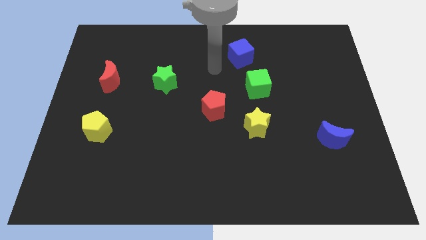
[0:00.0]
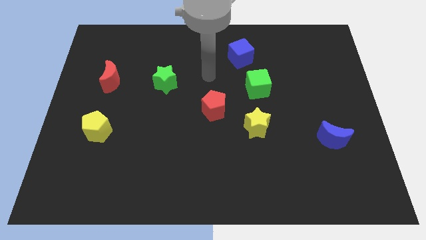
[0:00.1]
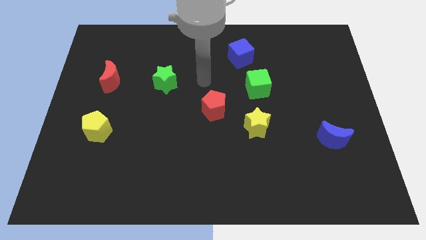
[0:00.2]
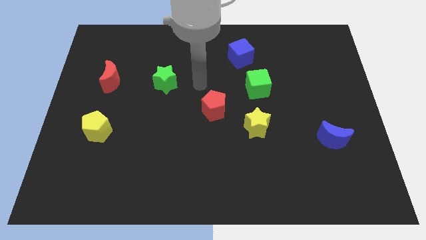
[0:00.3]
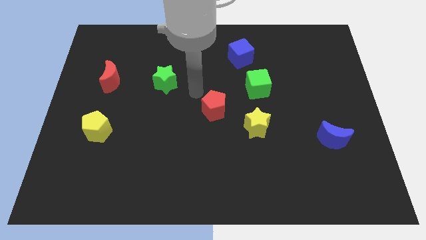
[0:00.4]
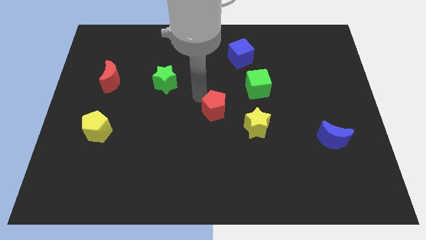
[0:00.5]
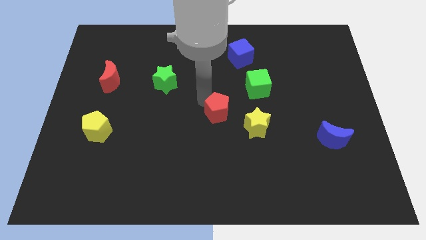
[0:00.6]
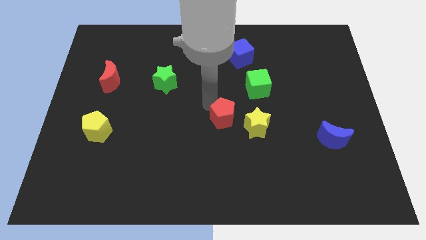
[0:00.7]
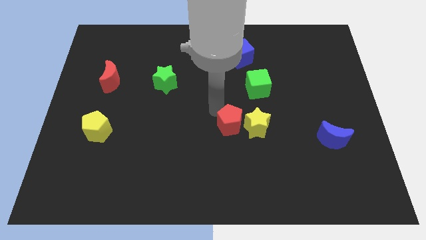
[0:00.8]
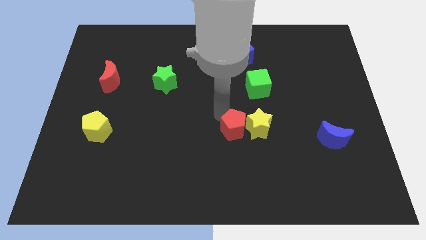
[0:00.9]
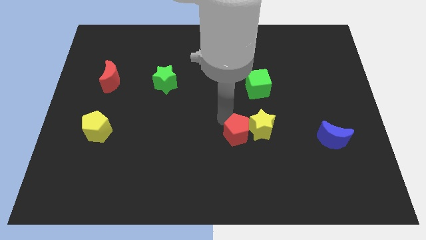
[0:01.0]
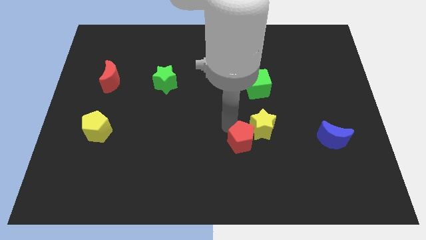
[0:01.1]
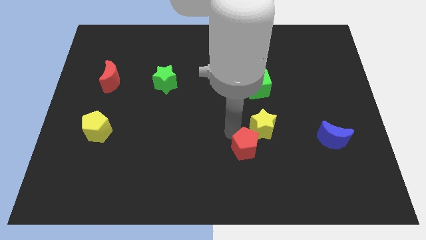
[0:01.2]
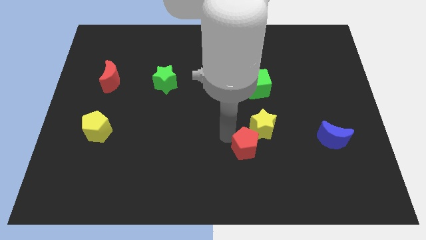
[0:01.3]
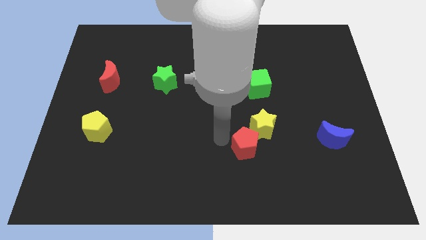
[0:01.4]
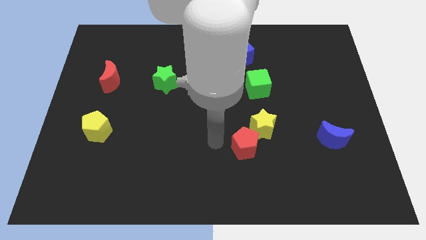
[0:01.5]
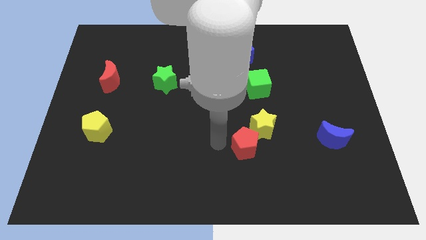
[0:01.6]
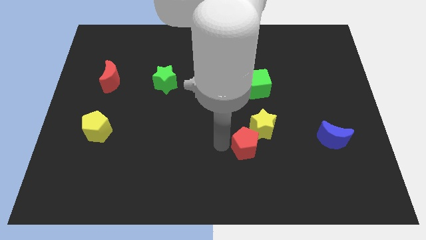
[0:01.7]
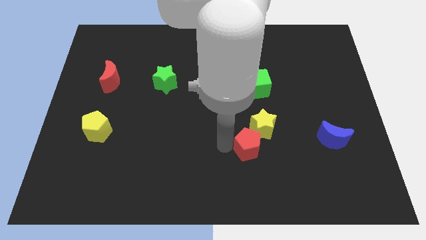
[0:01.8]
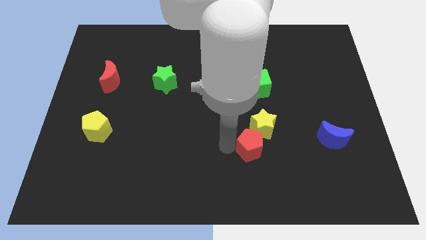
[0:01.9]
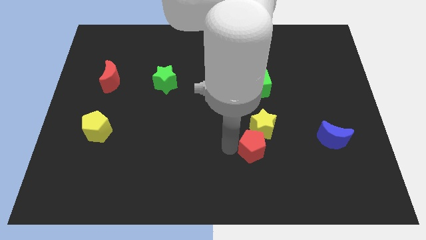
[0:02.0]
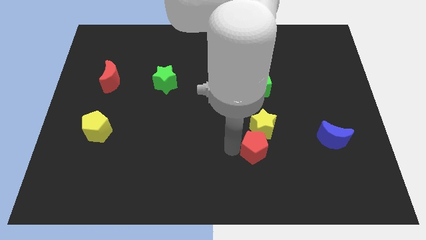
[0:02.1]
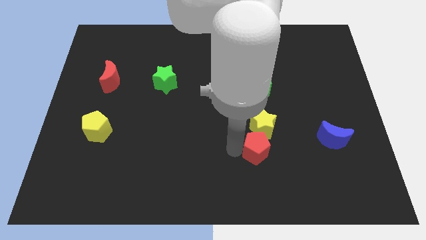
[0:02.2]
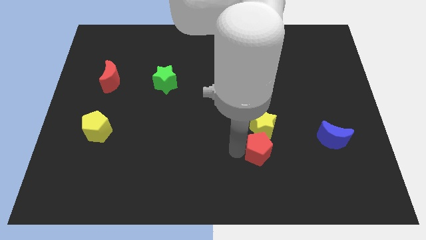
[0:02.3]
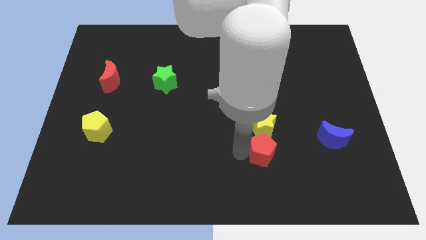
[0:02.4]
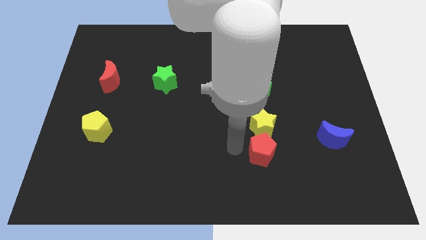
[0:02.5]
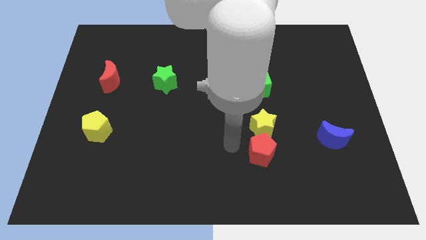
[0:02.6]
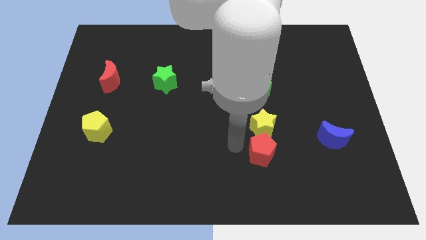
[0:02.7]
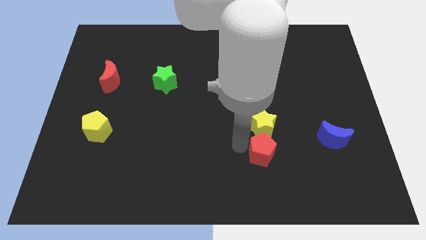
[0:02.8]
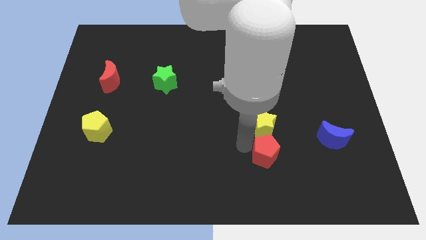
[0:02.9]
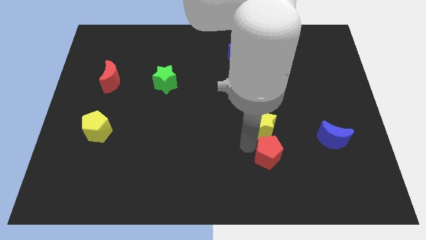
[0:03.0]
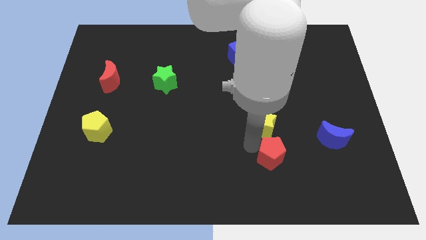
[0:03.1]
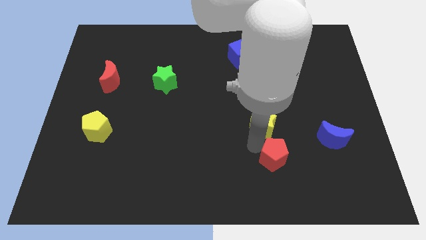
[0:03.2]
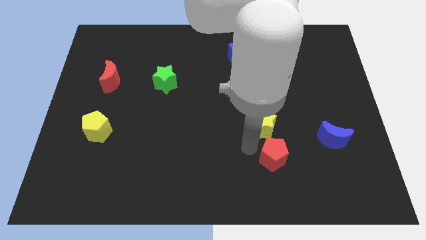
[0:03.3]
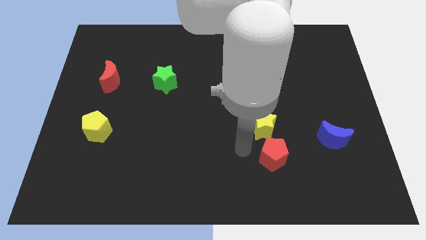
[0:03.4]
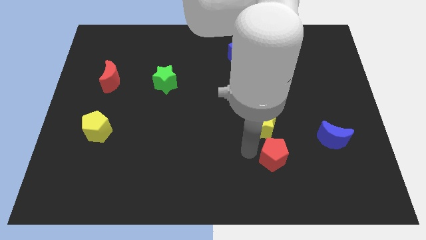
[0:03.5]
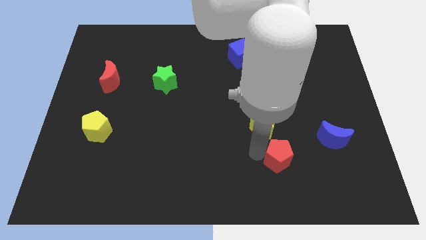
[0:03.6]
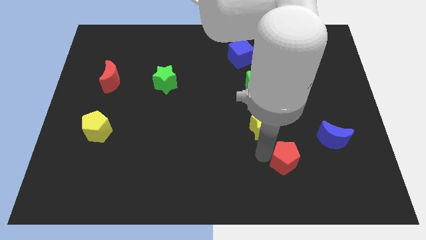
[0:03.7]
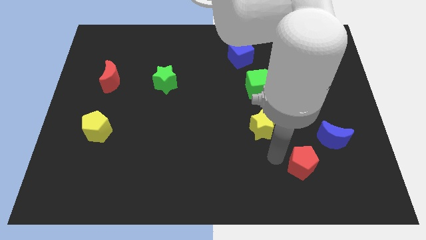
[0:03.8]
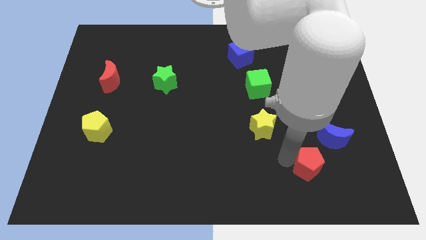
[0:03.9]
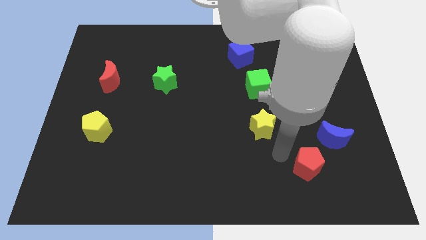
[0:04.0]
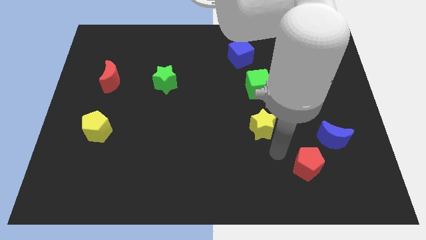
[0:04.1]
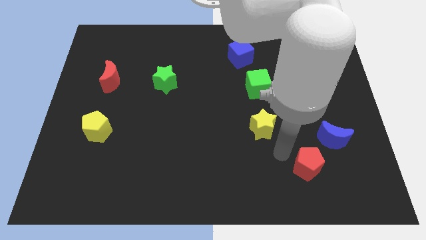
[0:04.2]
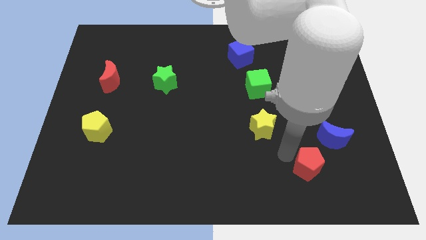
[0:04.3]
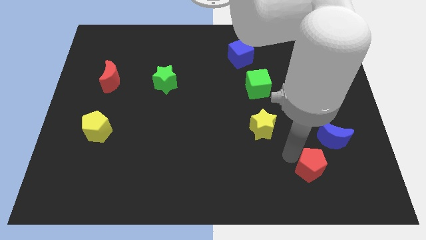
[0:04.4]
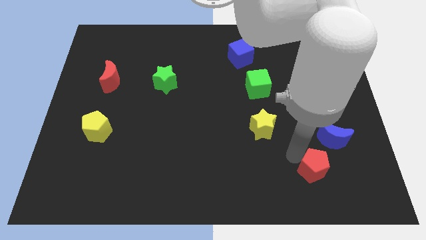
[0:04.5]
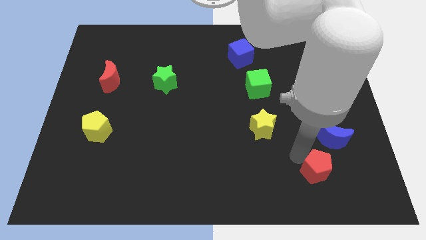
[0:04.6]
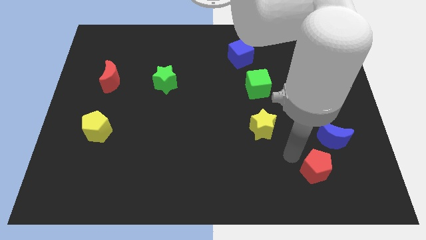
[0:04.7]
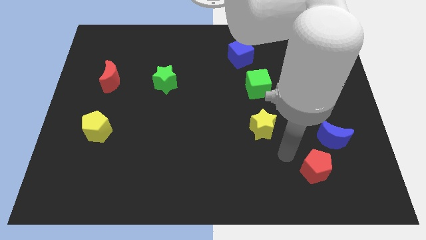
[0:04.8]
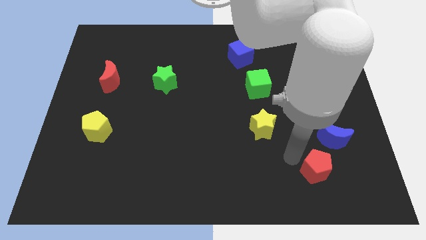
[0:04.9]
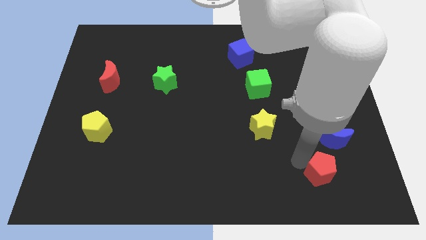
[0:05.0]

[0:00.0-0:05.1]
slide the red pentagon below the blue moon

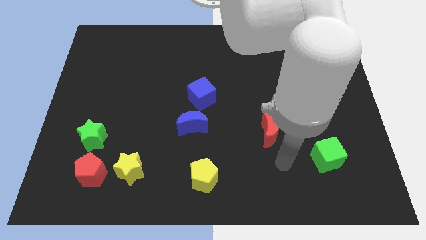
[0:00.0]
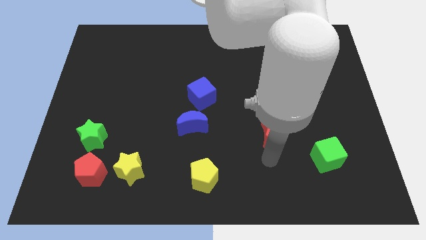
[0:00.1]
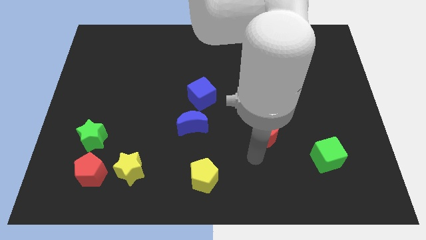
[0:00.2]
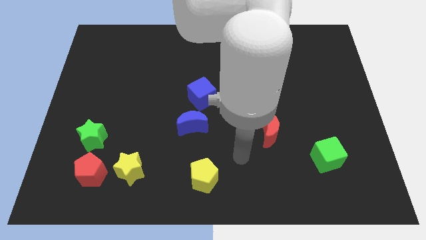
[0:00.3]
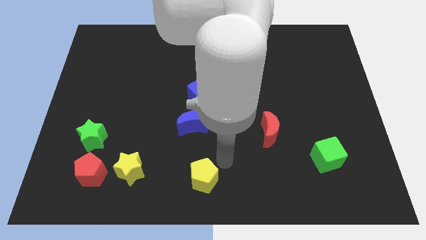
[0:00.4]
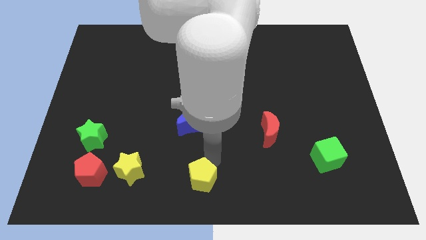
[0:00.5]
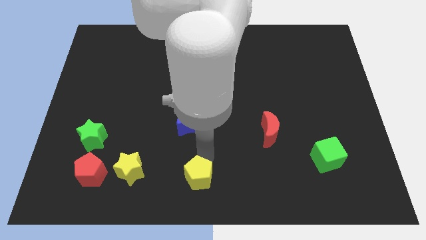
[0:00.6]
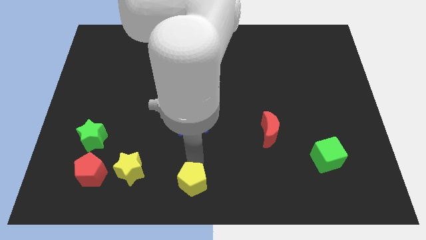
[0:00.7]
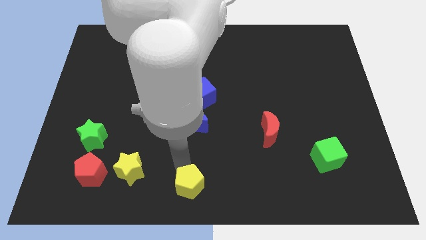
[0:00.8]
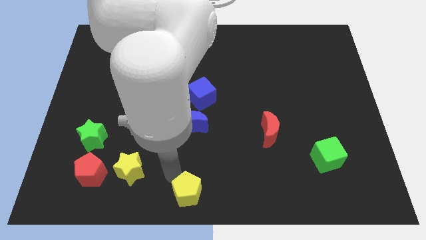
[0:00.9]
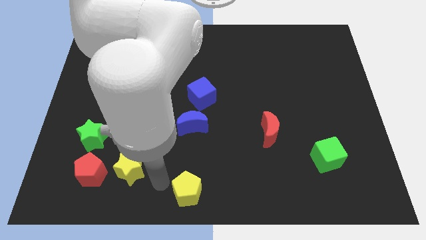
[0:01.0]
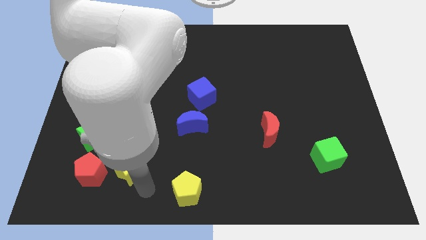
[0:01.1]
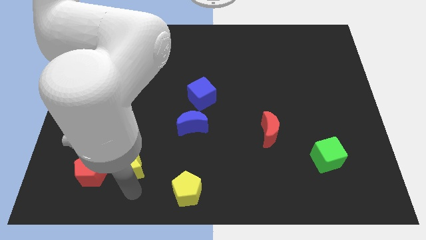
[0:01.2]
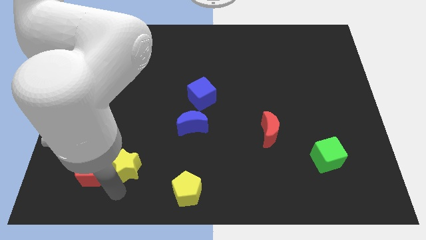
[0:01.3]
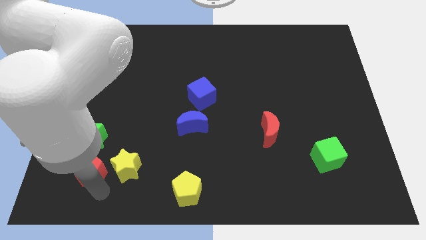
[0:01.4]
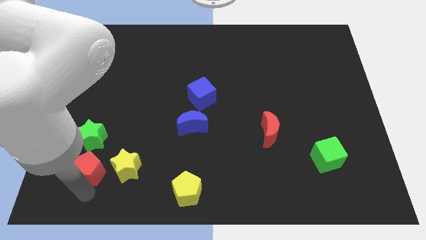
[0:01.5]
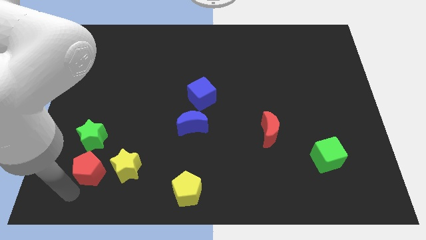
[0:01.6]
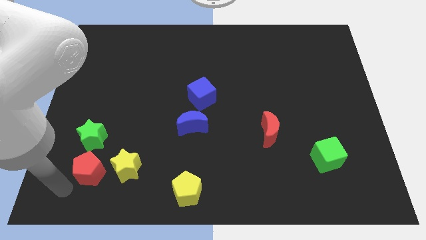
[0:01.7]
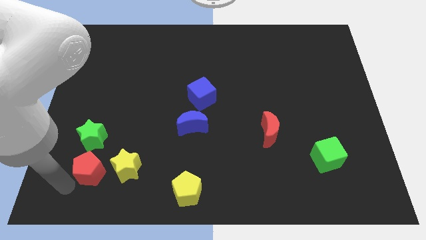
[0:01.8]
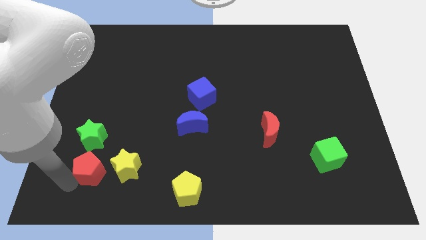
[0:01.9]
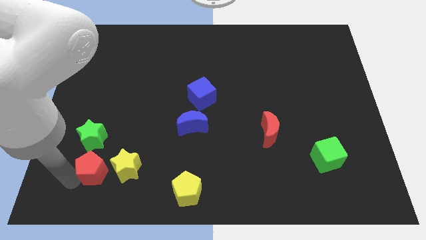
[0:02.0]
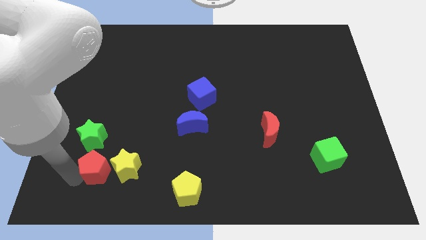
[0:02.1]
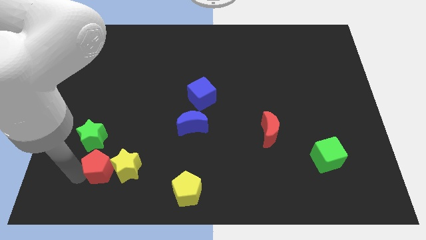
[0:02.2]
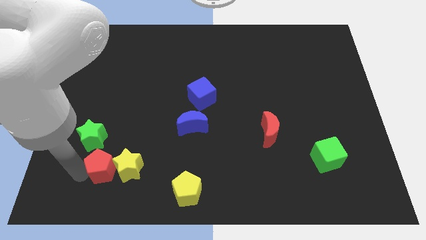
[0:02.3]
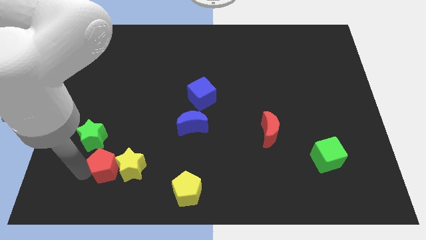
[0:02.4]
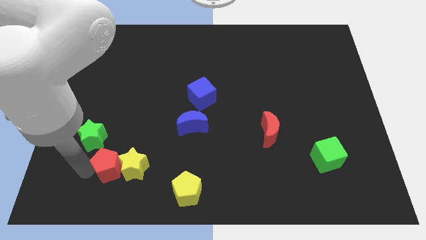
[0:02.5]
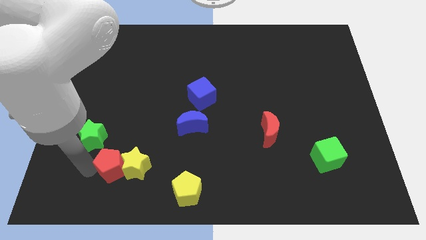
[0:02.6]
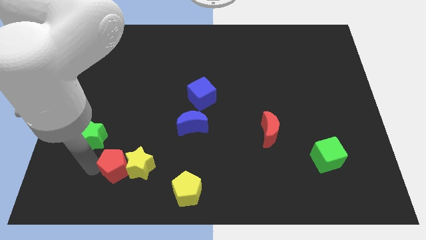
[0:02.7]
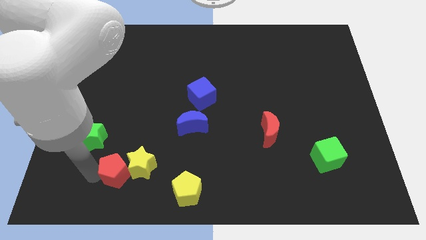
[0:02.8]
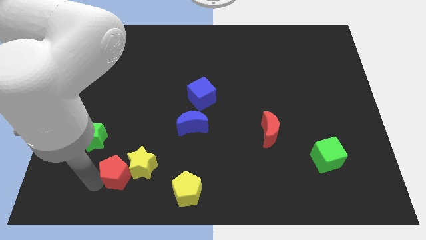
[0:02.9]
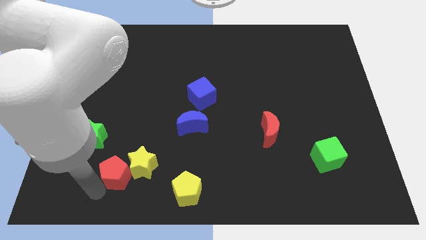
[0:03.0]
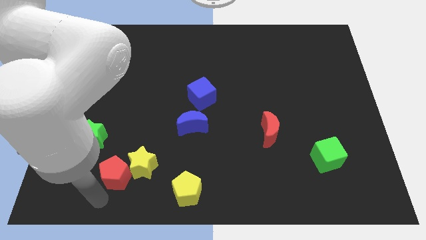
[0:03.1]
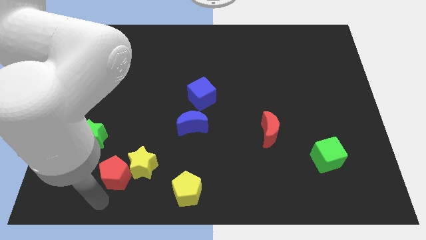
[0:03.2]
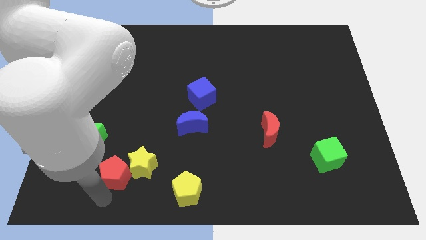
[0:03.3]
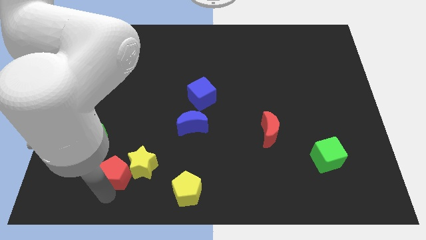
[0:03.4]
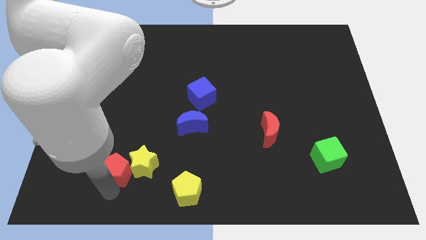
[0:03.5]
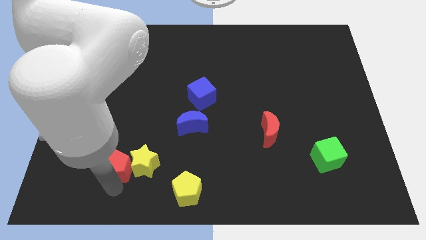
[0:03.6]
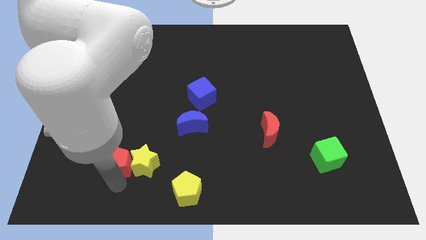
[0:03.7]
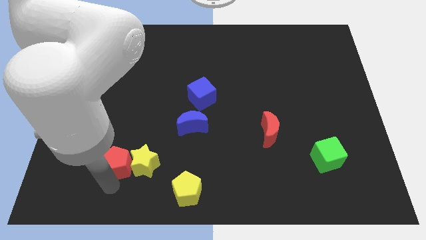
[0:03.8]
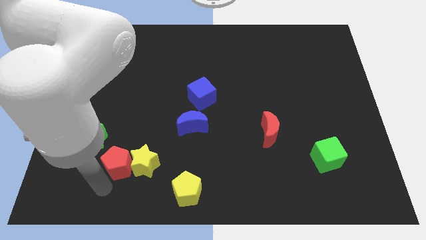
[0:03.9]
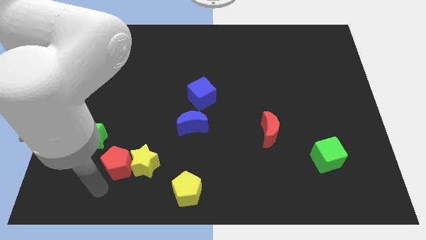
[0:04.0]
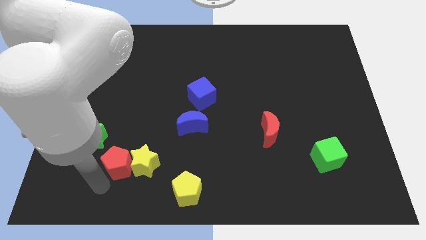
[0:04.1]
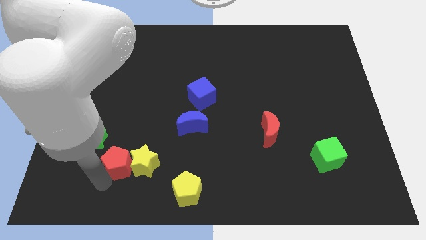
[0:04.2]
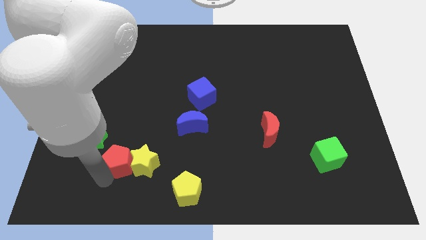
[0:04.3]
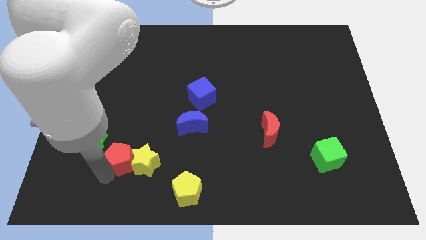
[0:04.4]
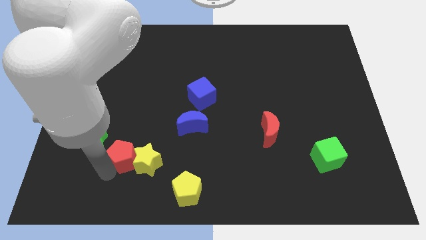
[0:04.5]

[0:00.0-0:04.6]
push the red pentagon right of the green star
